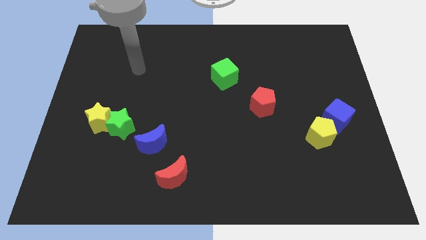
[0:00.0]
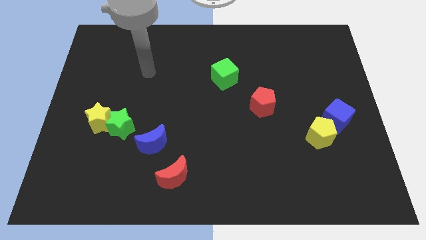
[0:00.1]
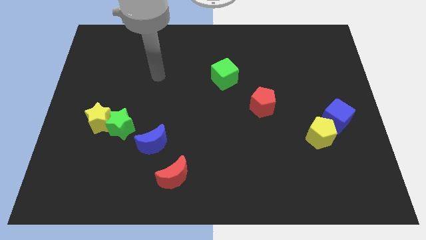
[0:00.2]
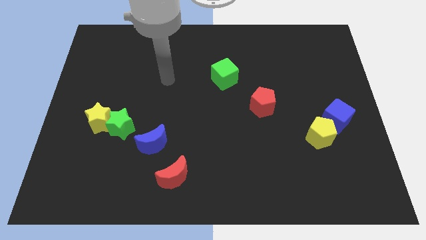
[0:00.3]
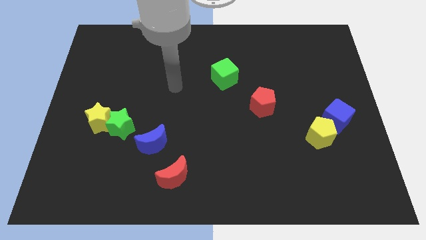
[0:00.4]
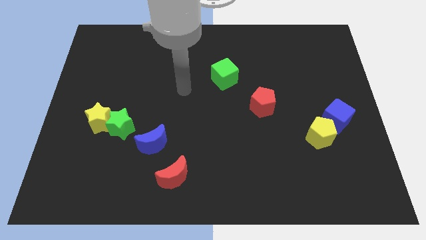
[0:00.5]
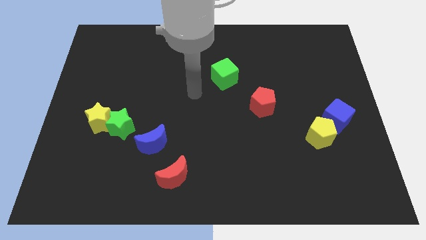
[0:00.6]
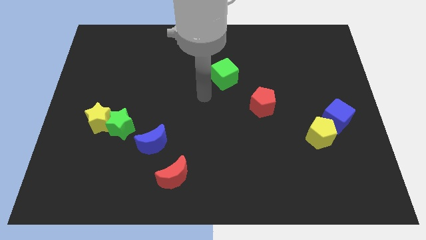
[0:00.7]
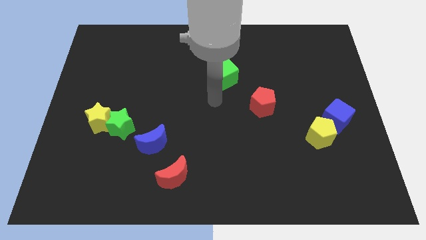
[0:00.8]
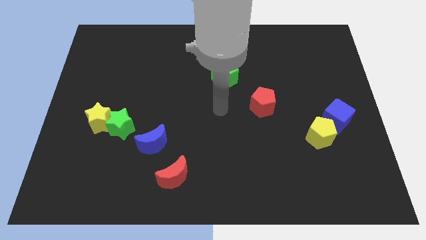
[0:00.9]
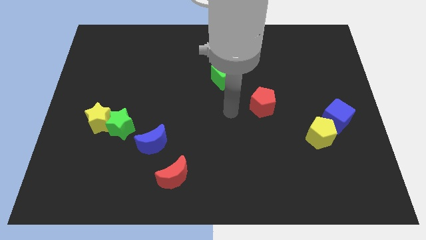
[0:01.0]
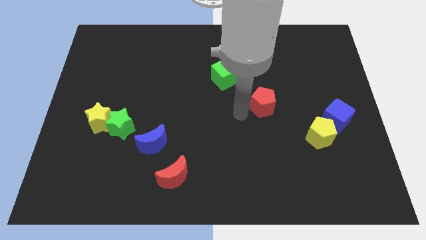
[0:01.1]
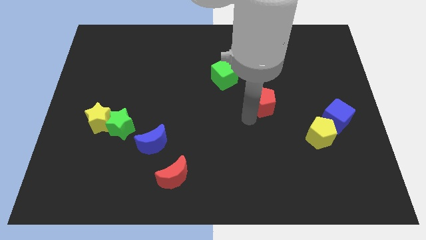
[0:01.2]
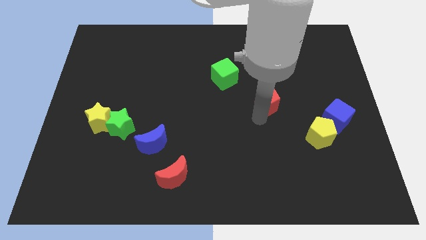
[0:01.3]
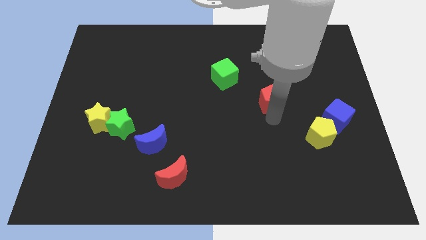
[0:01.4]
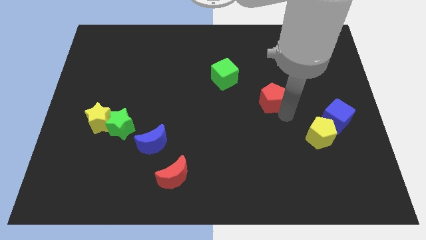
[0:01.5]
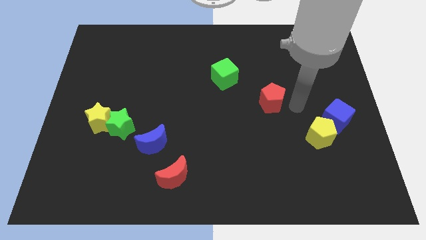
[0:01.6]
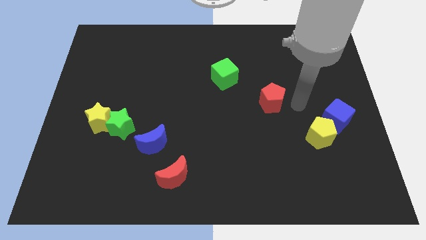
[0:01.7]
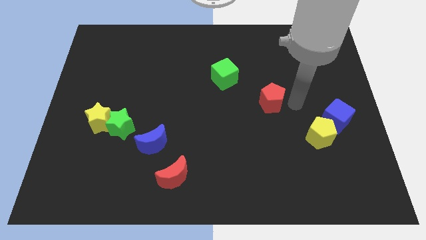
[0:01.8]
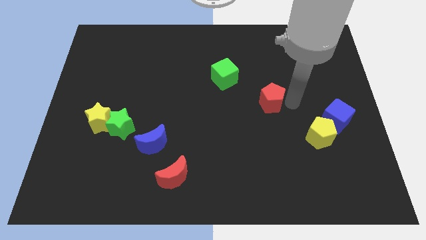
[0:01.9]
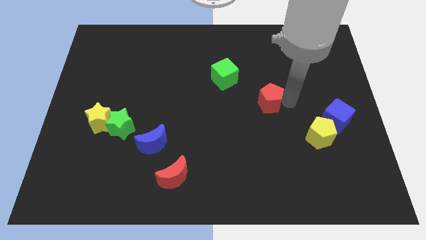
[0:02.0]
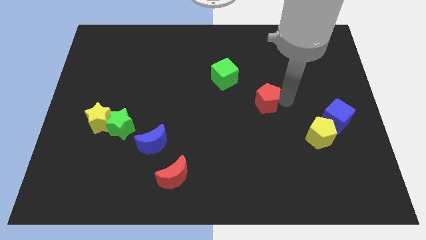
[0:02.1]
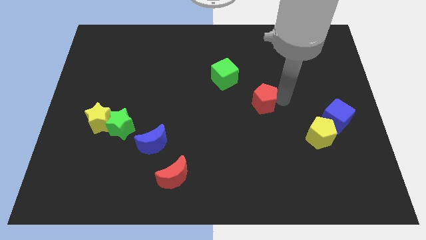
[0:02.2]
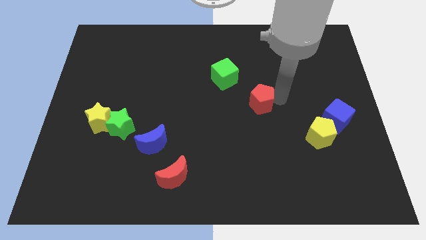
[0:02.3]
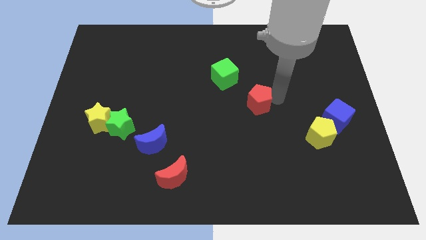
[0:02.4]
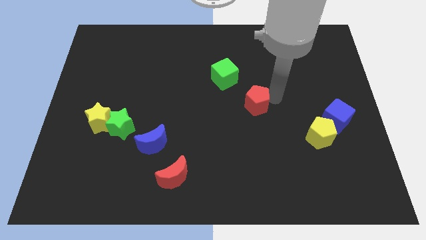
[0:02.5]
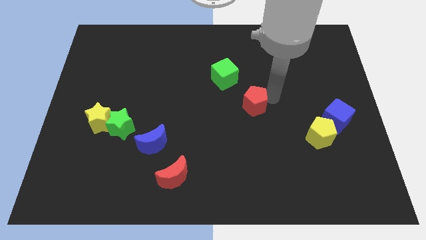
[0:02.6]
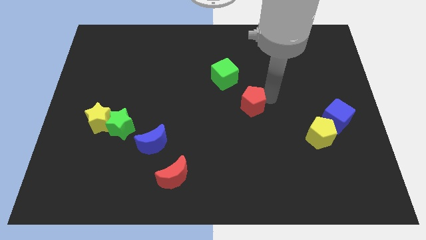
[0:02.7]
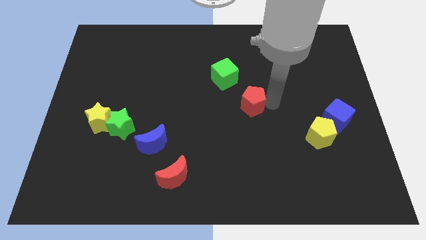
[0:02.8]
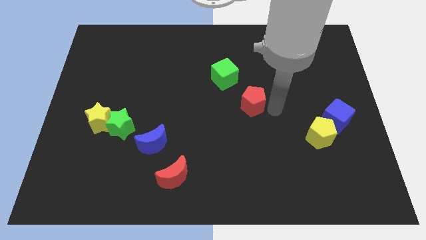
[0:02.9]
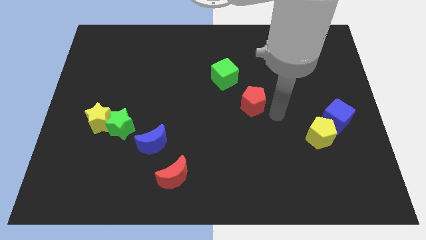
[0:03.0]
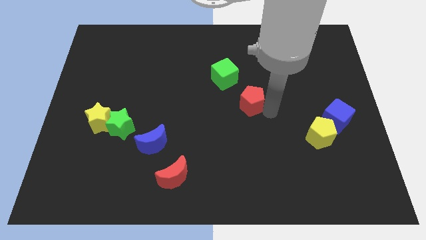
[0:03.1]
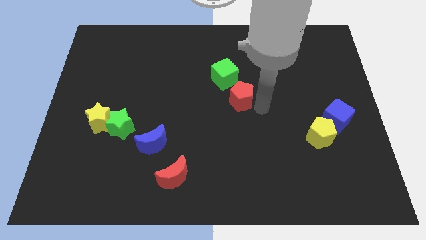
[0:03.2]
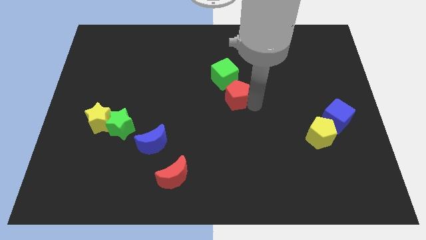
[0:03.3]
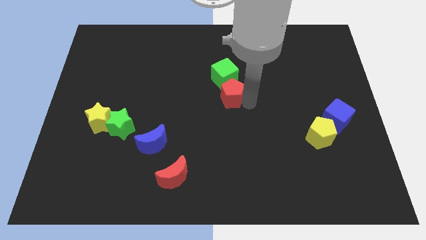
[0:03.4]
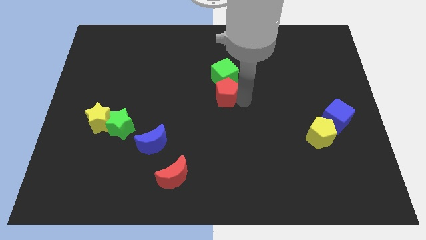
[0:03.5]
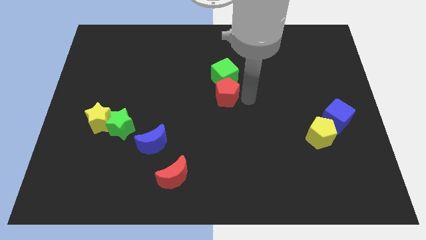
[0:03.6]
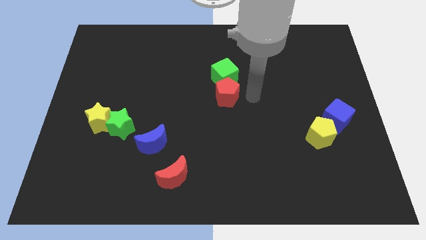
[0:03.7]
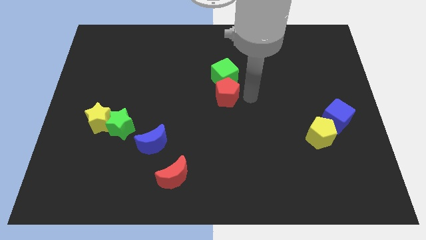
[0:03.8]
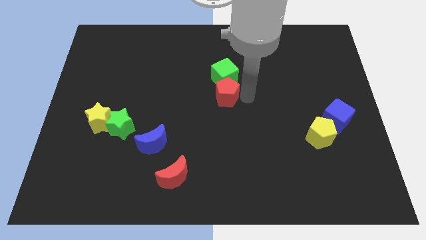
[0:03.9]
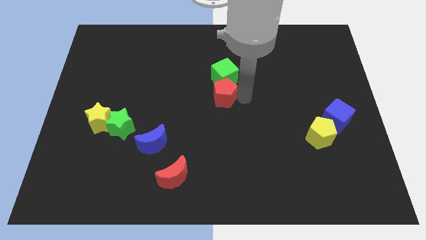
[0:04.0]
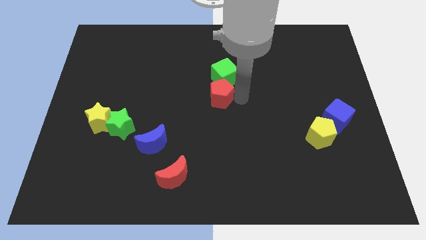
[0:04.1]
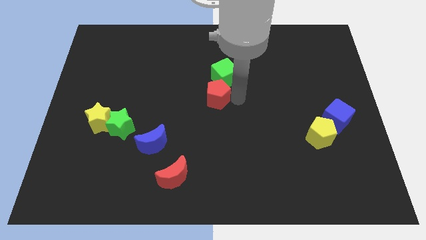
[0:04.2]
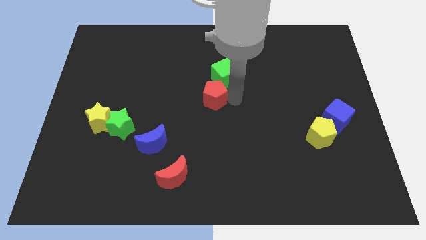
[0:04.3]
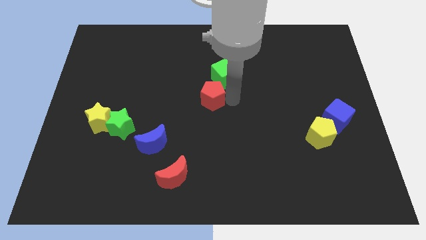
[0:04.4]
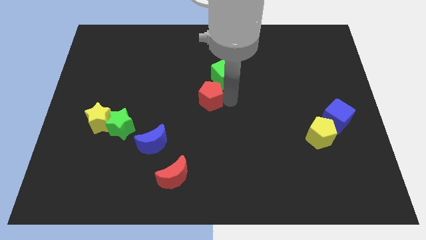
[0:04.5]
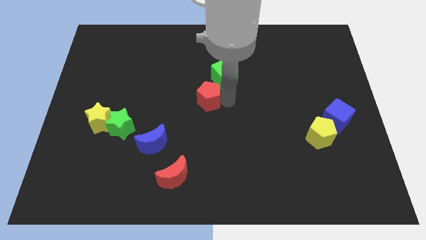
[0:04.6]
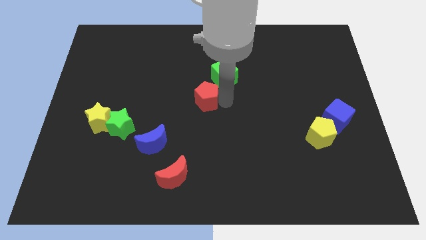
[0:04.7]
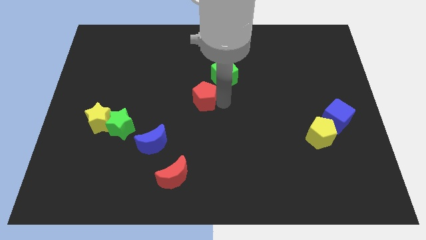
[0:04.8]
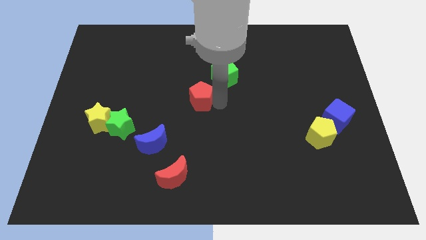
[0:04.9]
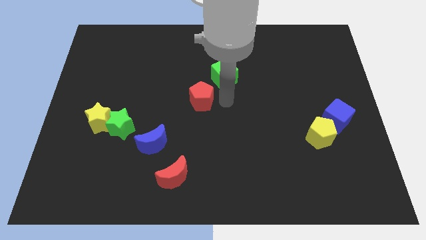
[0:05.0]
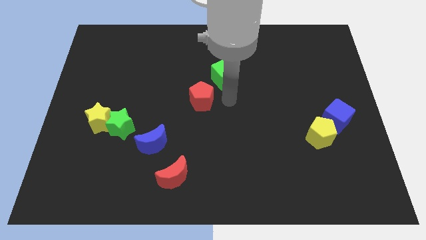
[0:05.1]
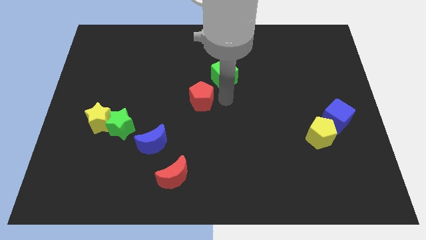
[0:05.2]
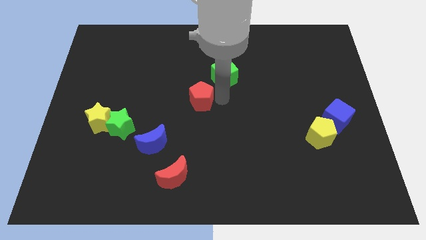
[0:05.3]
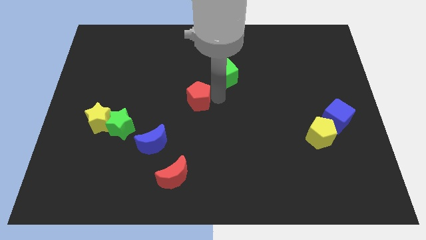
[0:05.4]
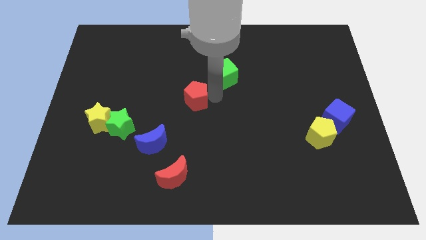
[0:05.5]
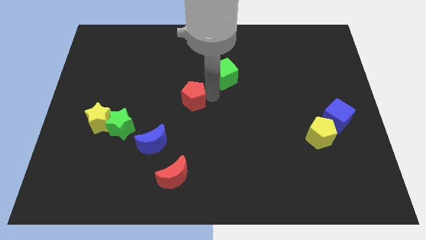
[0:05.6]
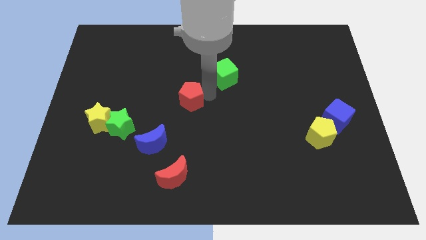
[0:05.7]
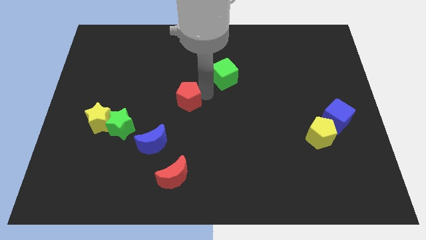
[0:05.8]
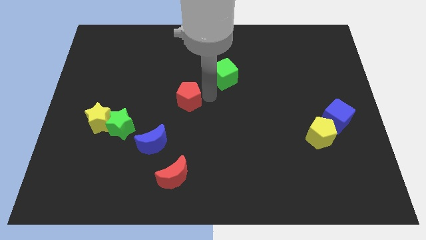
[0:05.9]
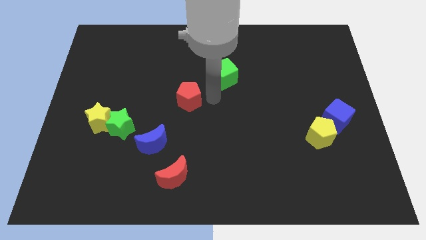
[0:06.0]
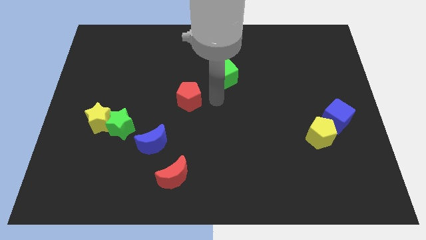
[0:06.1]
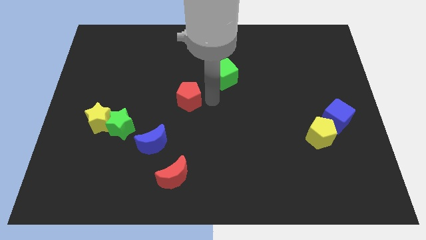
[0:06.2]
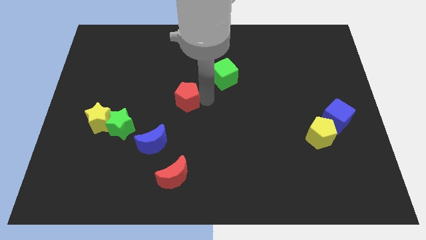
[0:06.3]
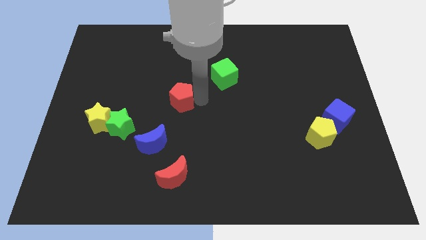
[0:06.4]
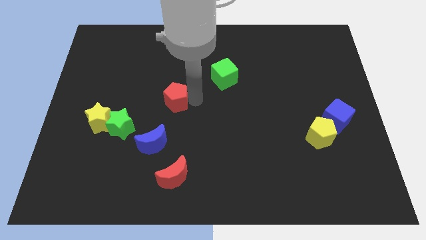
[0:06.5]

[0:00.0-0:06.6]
slide the red pentagon left

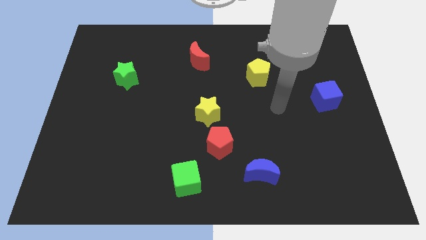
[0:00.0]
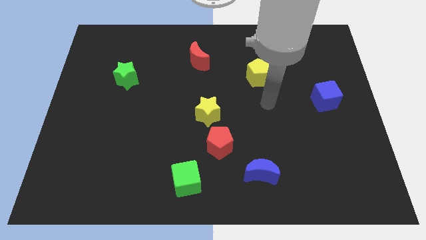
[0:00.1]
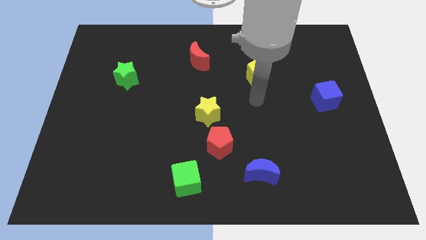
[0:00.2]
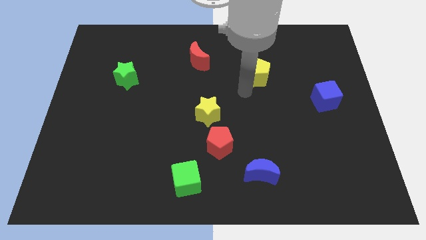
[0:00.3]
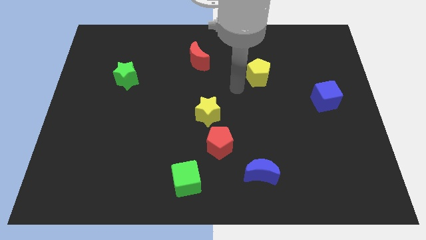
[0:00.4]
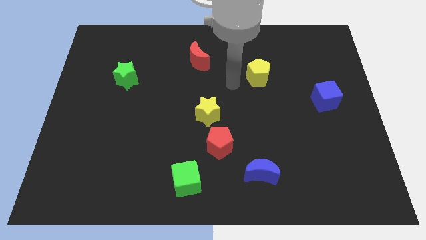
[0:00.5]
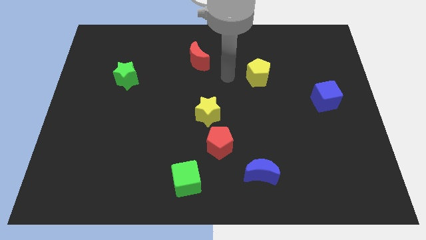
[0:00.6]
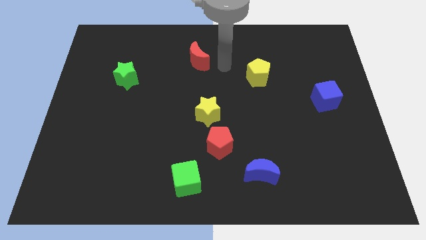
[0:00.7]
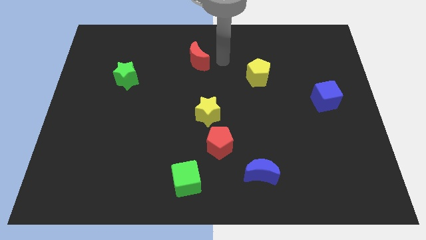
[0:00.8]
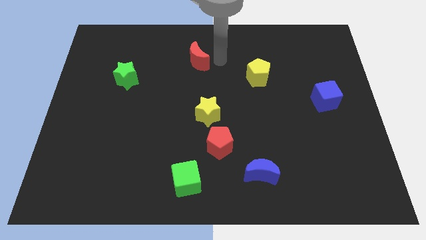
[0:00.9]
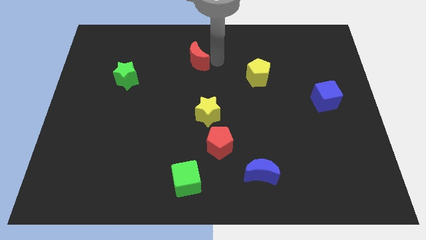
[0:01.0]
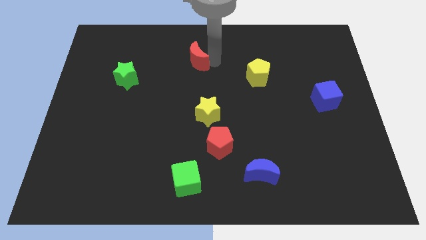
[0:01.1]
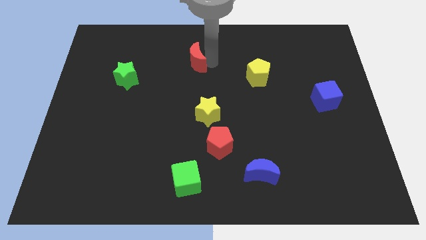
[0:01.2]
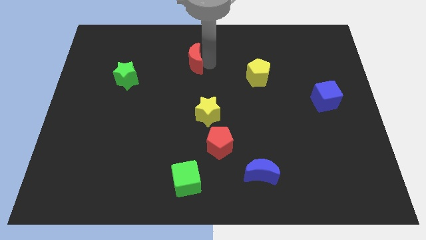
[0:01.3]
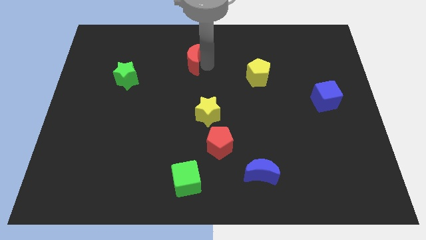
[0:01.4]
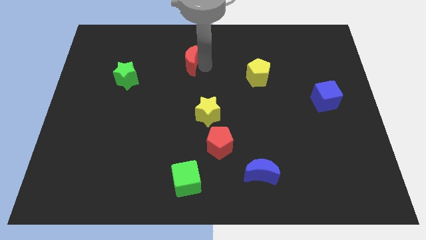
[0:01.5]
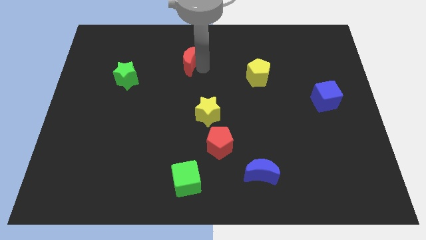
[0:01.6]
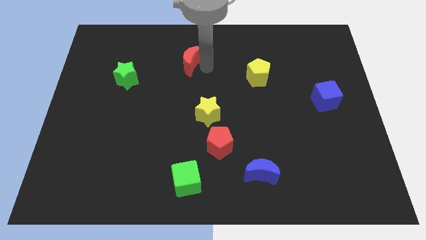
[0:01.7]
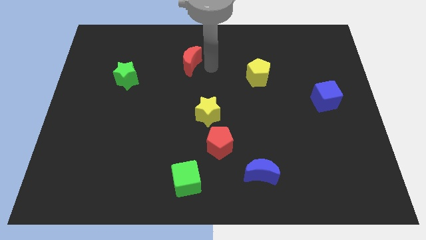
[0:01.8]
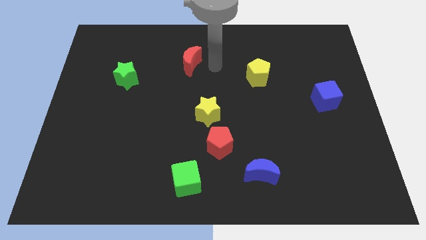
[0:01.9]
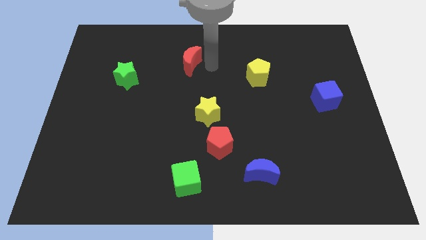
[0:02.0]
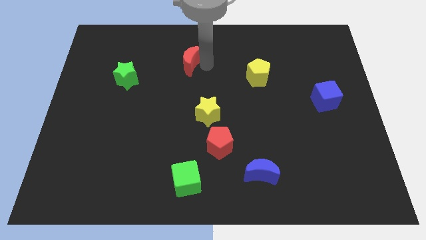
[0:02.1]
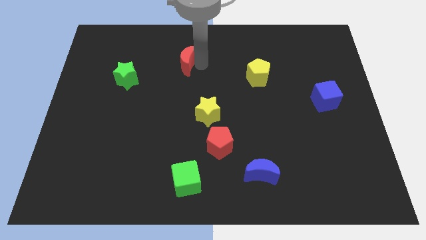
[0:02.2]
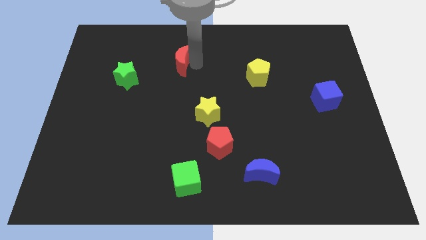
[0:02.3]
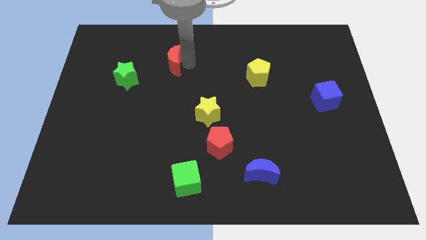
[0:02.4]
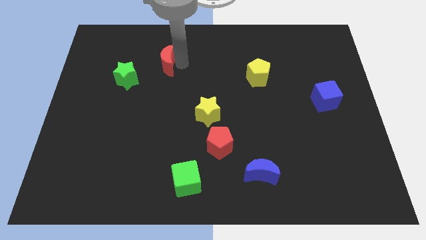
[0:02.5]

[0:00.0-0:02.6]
push the red moon left a little
